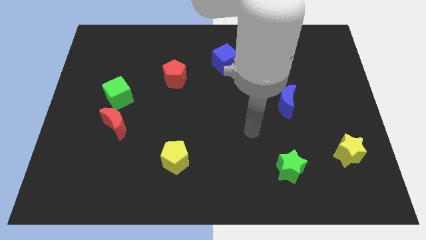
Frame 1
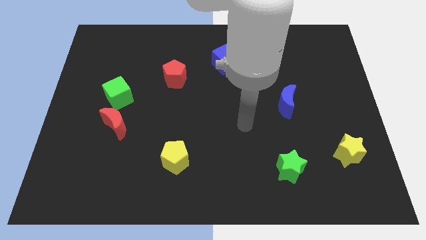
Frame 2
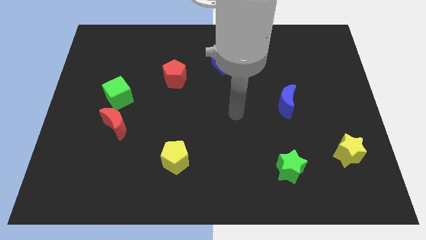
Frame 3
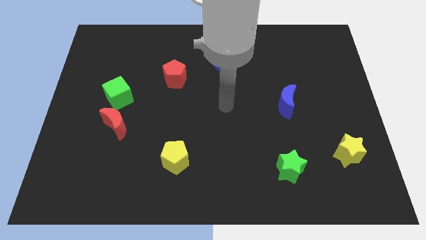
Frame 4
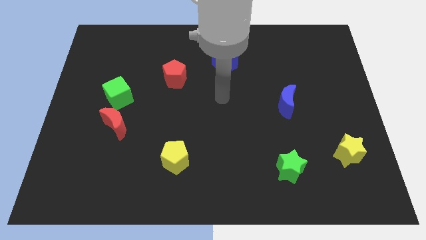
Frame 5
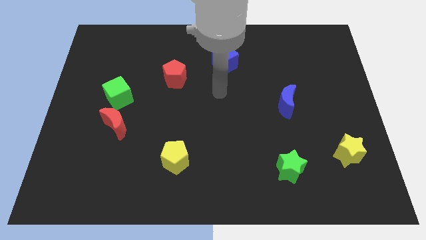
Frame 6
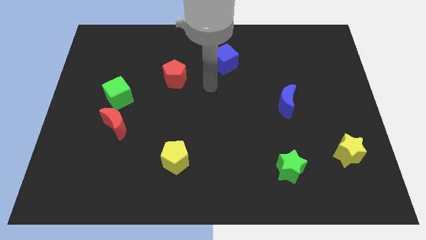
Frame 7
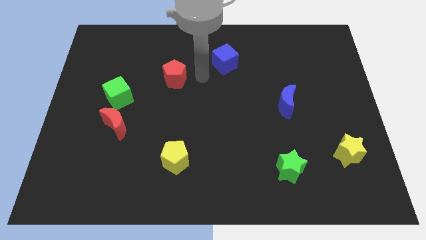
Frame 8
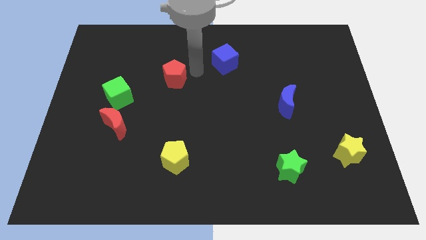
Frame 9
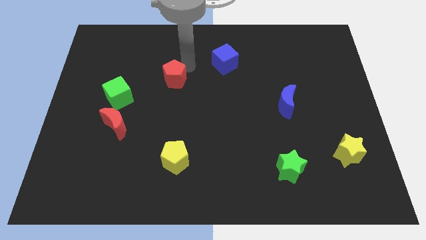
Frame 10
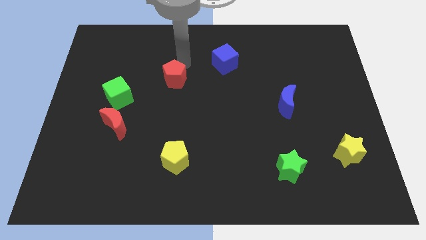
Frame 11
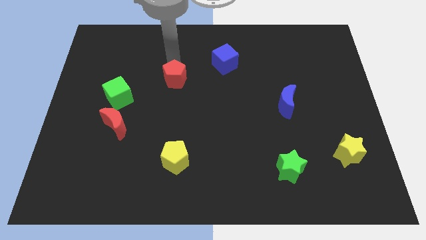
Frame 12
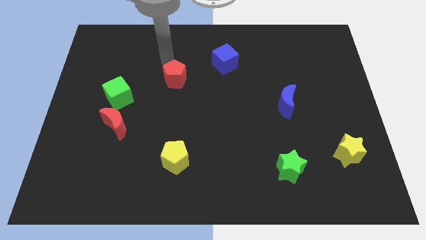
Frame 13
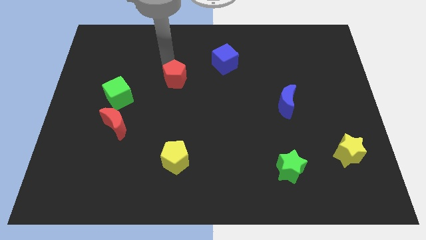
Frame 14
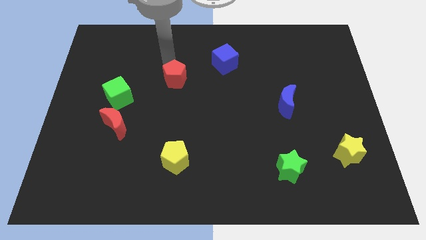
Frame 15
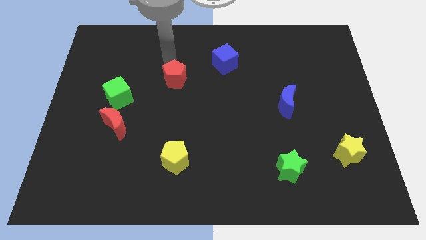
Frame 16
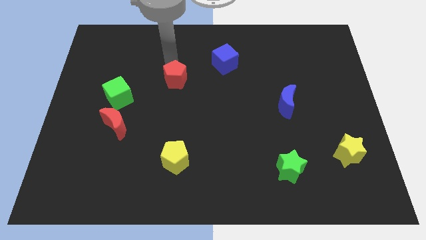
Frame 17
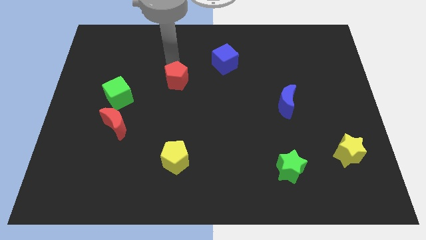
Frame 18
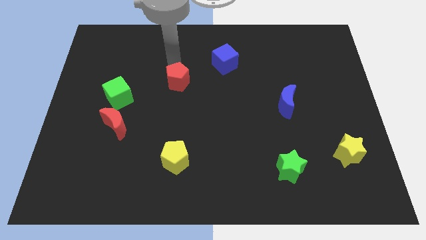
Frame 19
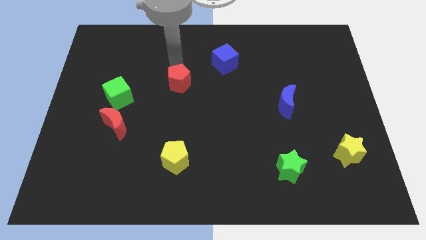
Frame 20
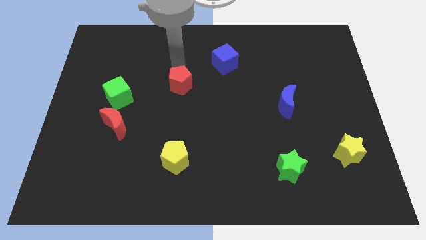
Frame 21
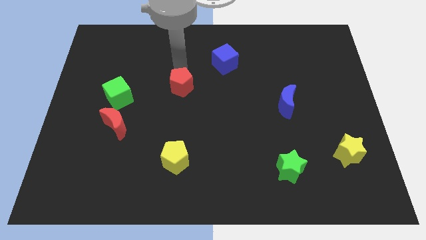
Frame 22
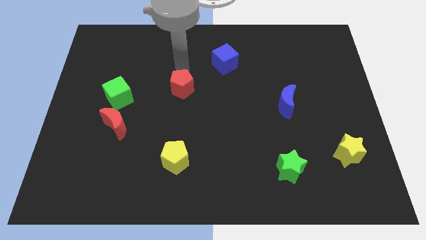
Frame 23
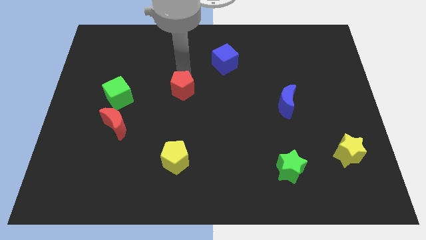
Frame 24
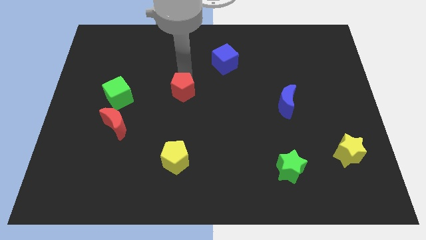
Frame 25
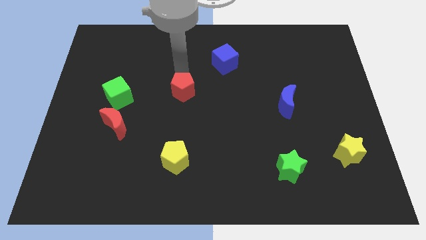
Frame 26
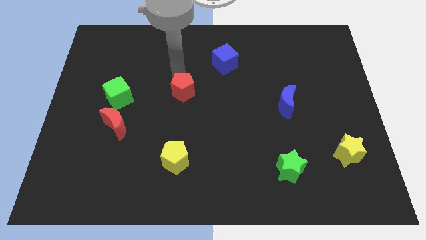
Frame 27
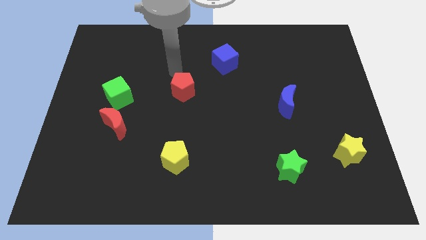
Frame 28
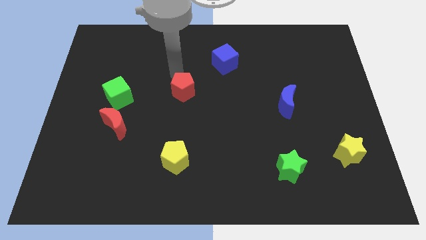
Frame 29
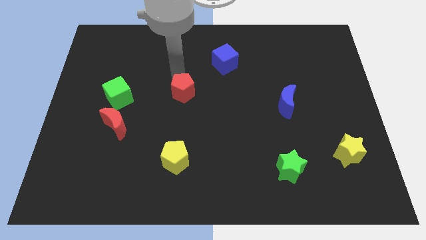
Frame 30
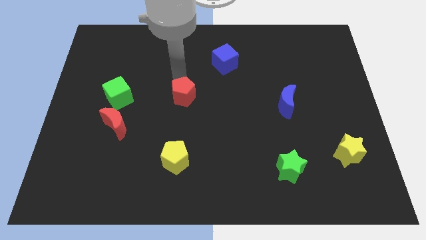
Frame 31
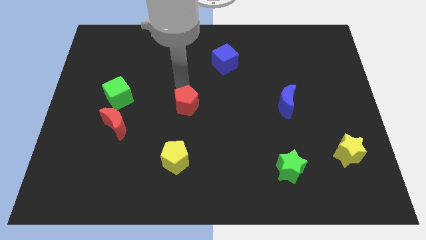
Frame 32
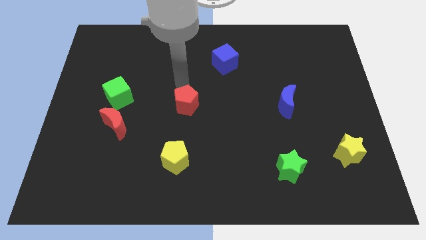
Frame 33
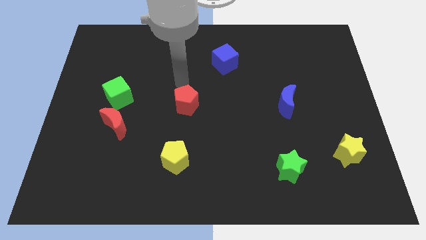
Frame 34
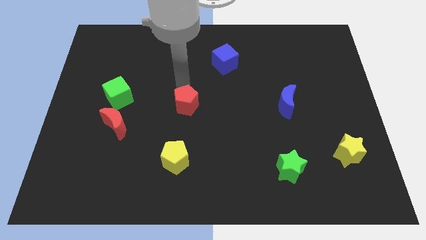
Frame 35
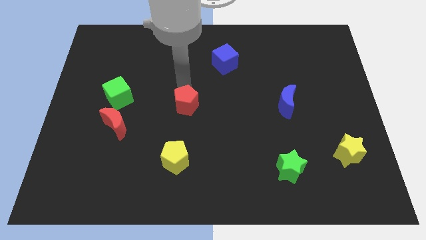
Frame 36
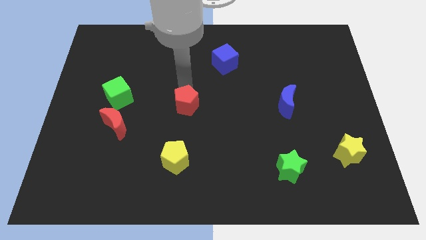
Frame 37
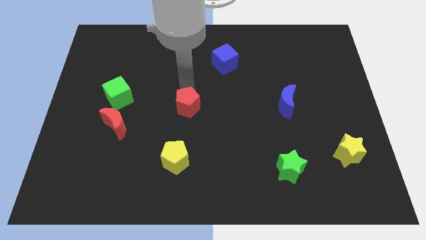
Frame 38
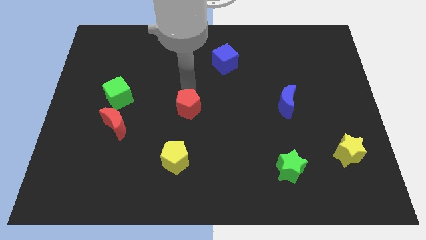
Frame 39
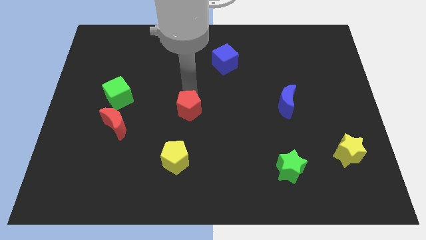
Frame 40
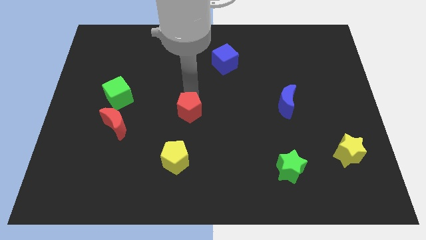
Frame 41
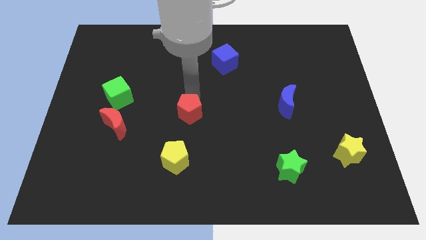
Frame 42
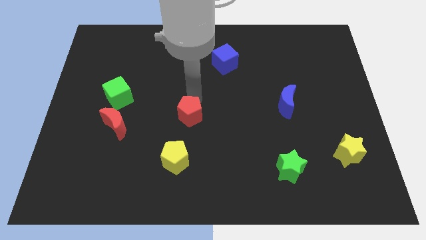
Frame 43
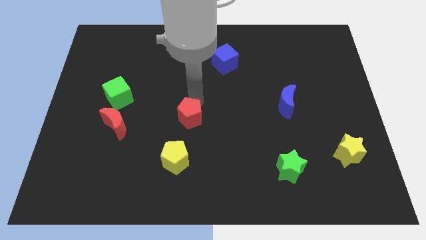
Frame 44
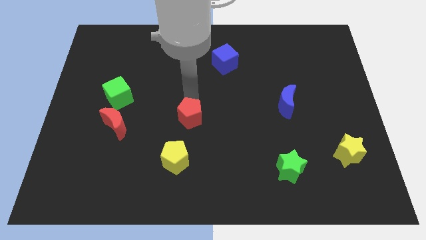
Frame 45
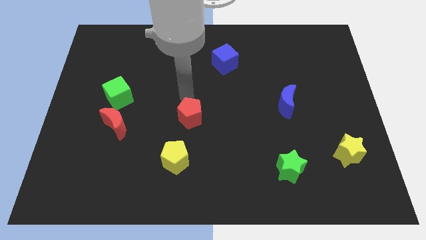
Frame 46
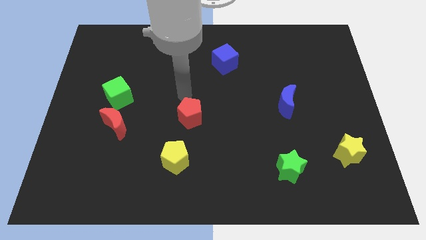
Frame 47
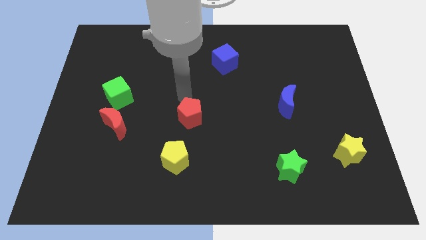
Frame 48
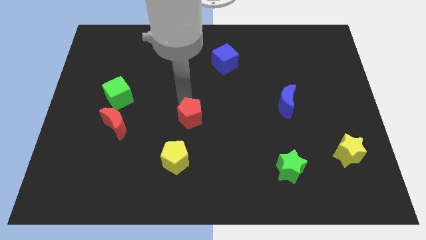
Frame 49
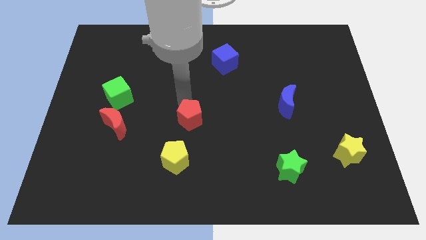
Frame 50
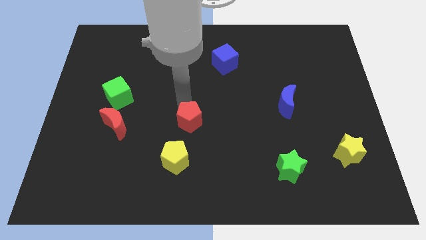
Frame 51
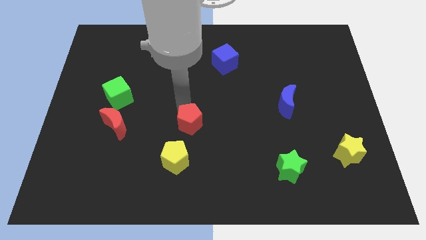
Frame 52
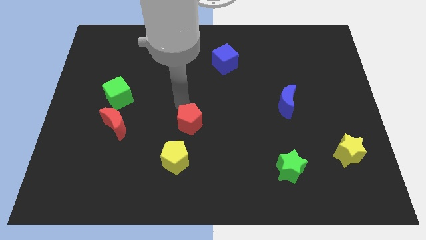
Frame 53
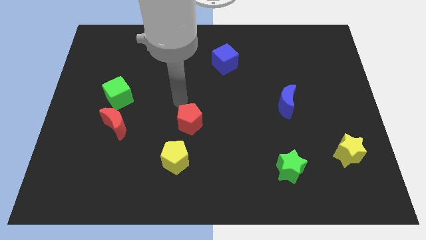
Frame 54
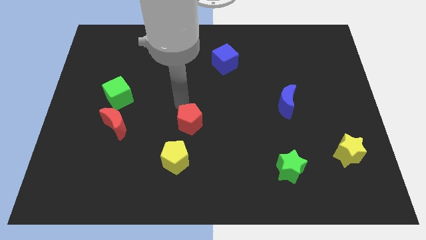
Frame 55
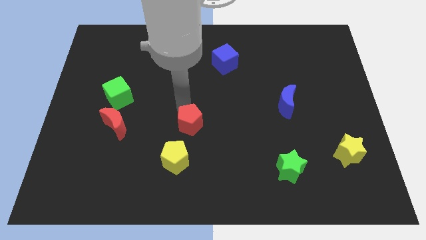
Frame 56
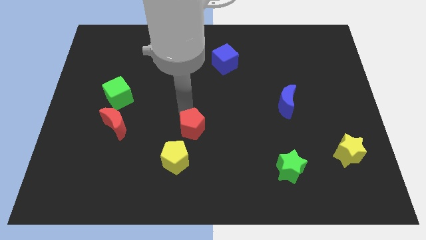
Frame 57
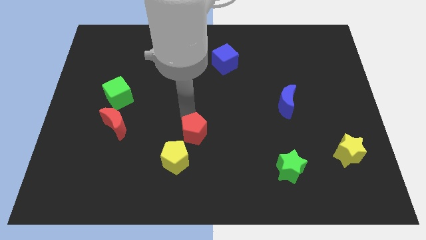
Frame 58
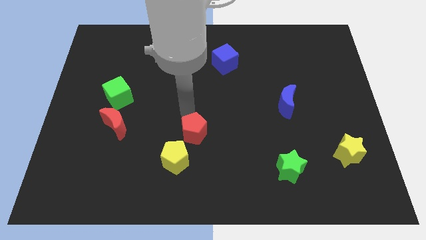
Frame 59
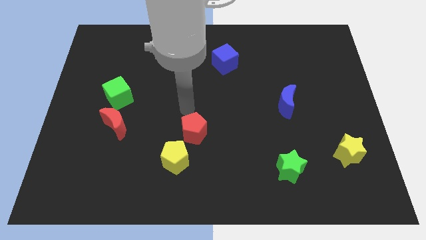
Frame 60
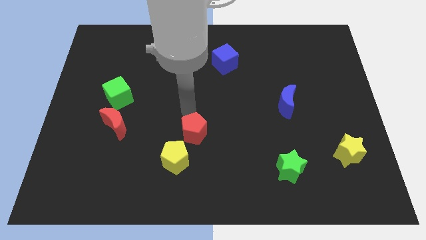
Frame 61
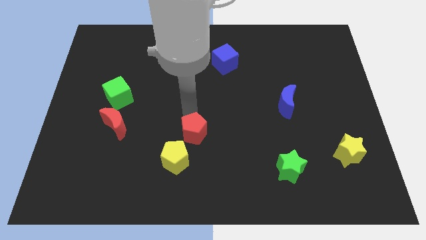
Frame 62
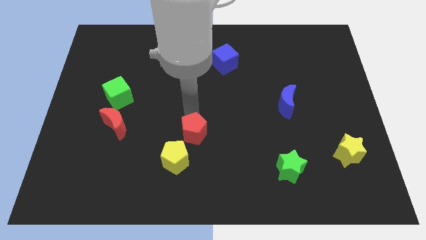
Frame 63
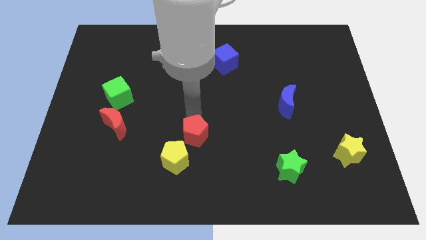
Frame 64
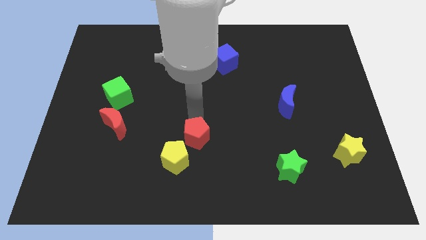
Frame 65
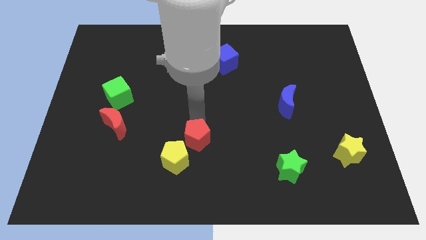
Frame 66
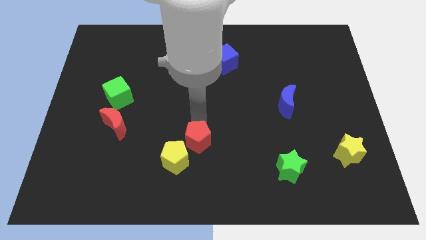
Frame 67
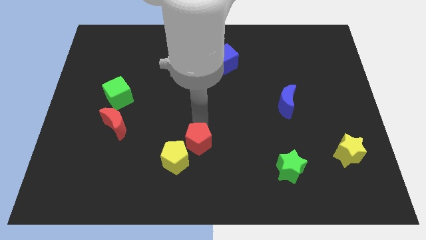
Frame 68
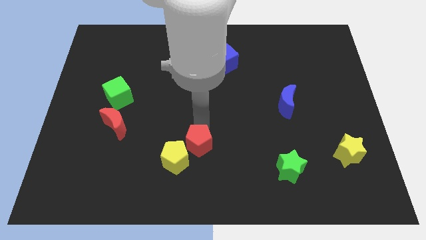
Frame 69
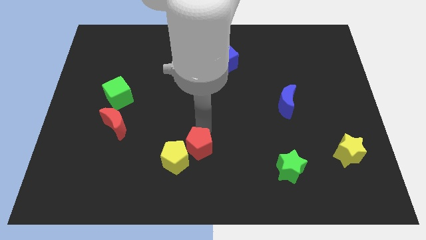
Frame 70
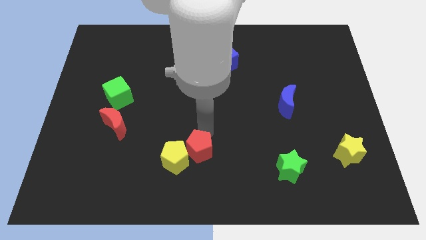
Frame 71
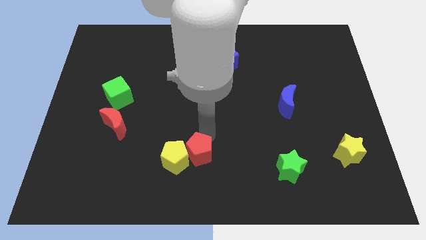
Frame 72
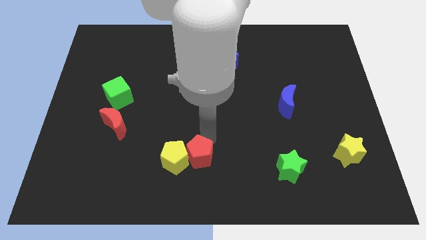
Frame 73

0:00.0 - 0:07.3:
put the red pentagon to the bottom right of the yellow pentagon
